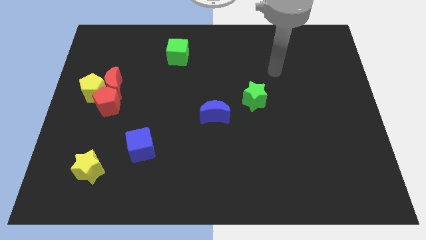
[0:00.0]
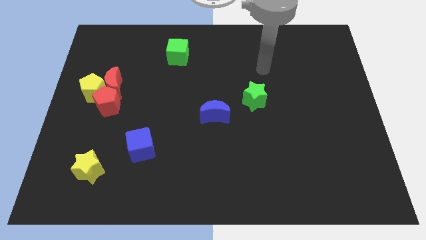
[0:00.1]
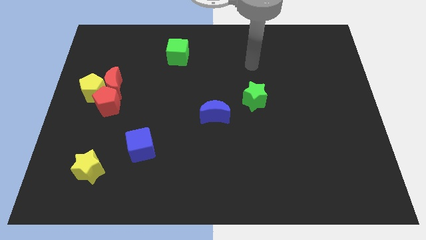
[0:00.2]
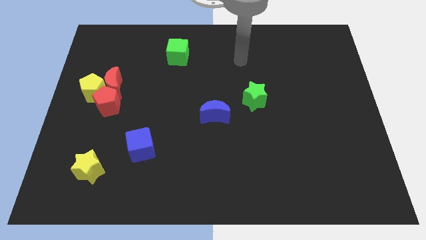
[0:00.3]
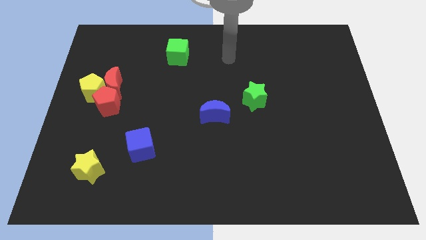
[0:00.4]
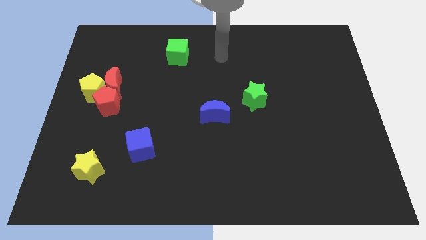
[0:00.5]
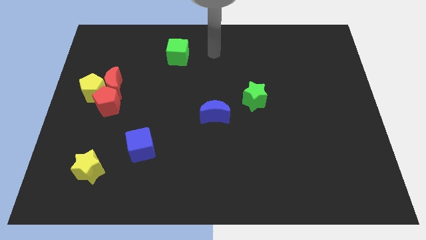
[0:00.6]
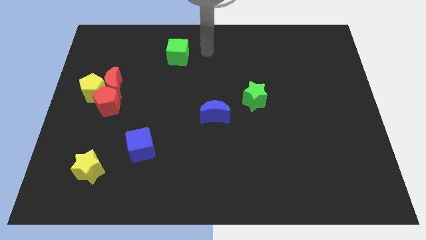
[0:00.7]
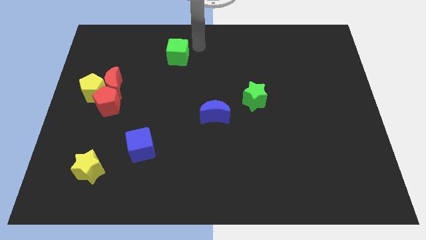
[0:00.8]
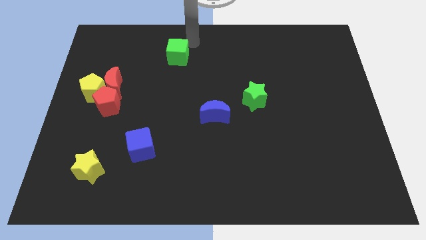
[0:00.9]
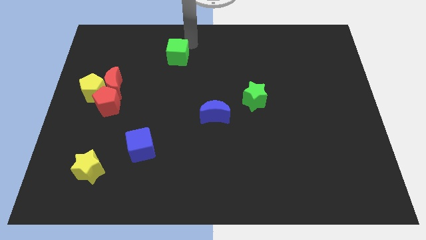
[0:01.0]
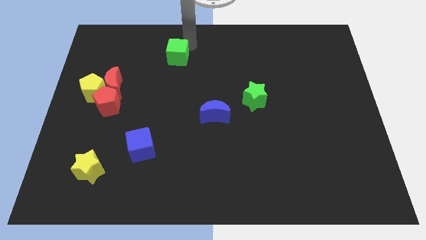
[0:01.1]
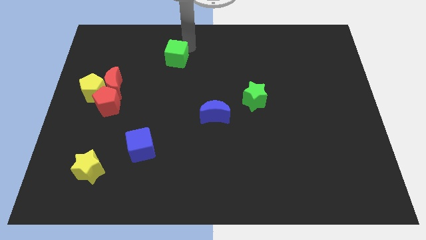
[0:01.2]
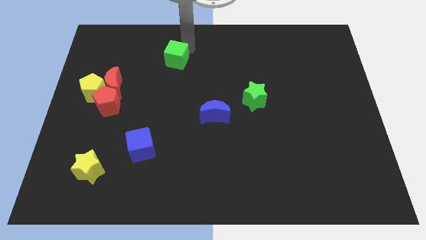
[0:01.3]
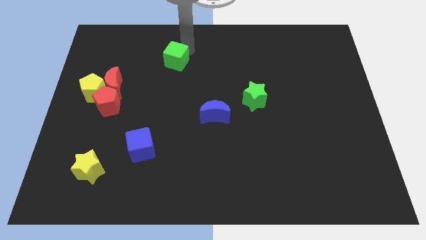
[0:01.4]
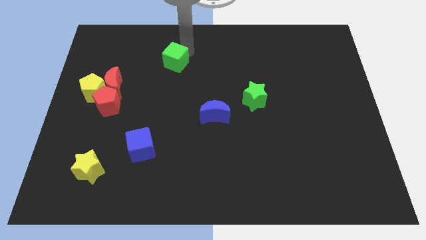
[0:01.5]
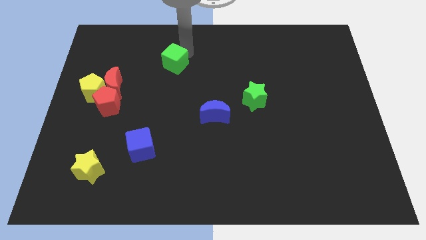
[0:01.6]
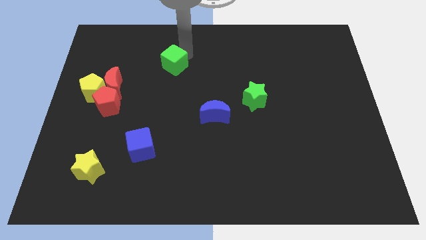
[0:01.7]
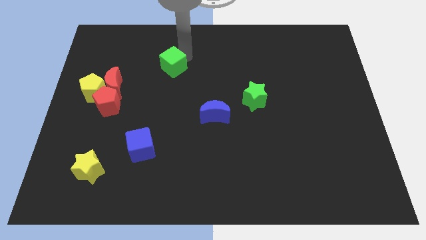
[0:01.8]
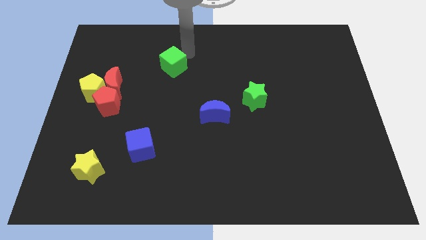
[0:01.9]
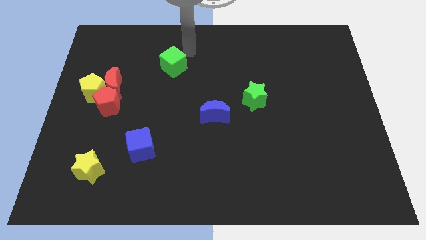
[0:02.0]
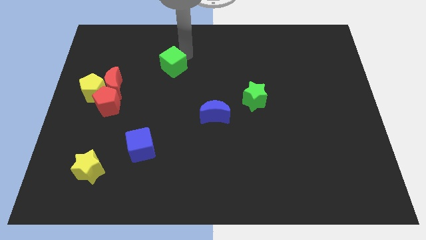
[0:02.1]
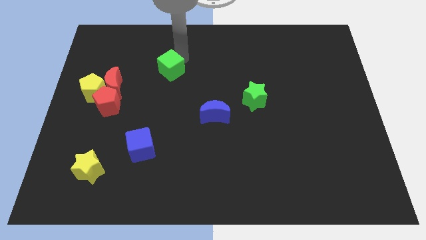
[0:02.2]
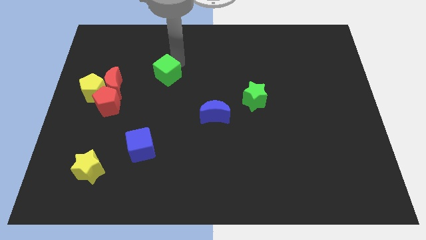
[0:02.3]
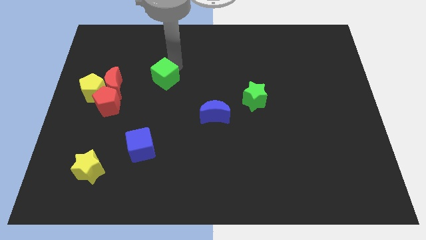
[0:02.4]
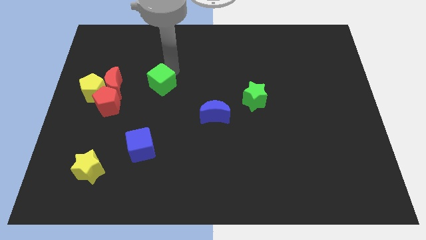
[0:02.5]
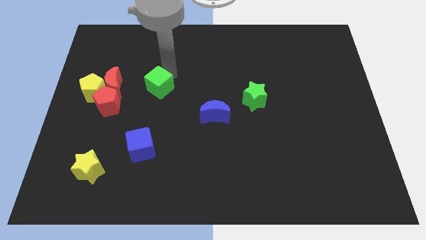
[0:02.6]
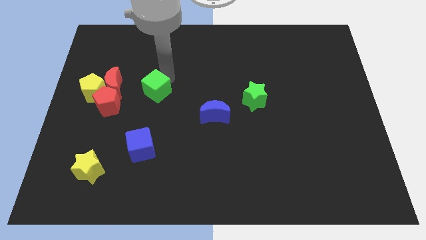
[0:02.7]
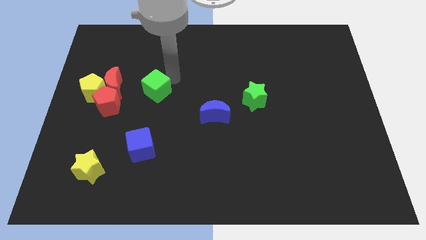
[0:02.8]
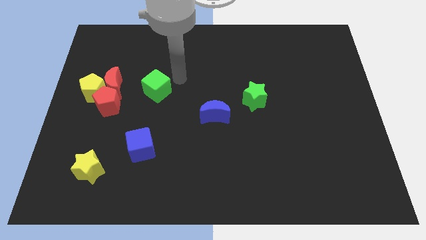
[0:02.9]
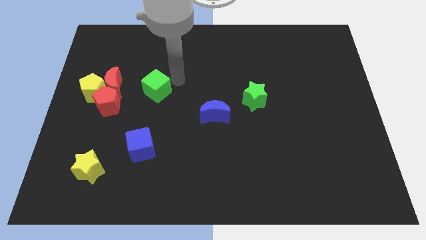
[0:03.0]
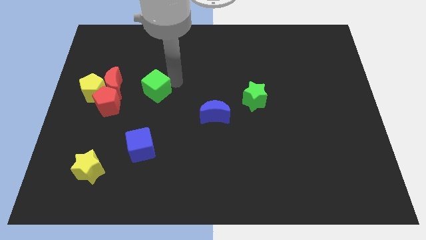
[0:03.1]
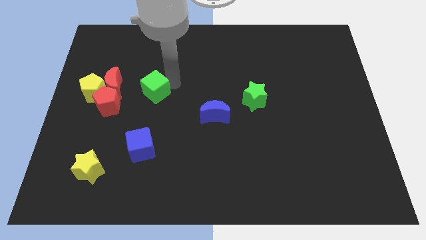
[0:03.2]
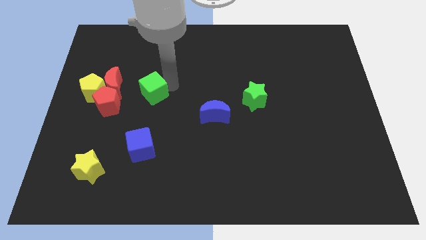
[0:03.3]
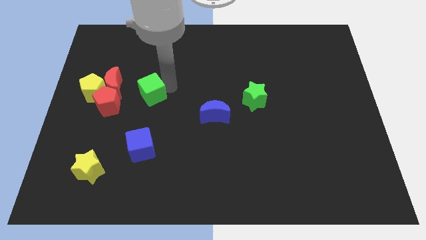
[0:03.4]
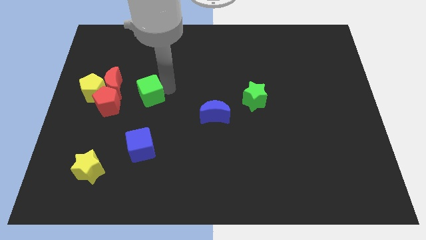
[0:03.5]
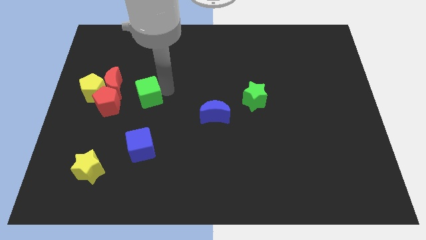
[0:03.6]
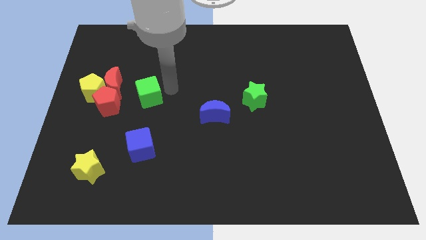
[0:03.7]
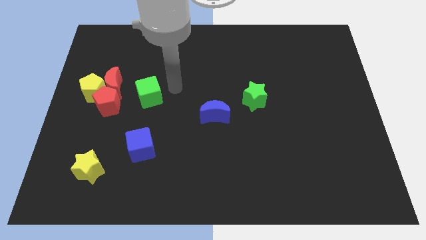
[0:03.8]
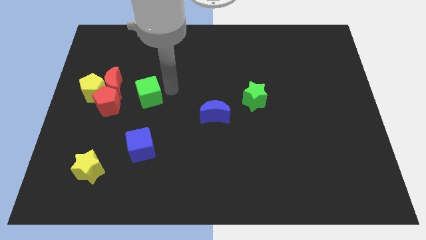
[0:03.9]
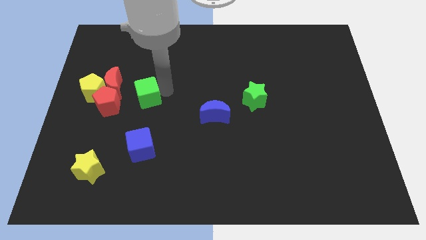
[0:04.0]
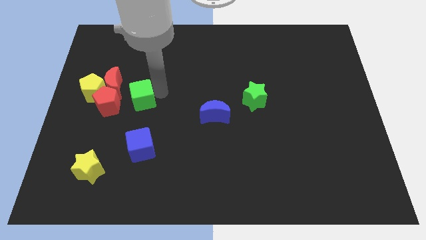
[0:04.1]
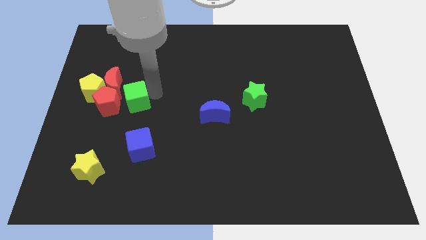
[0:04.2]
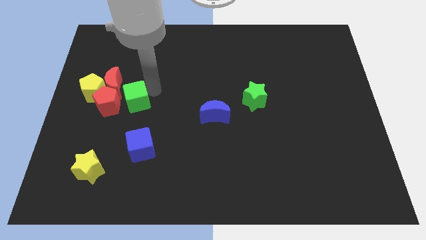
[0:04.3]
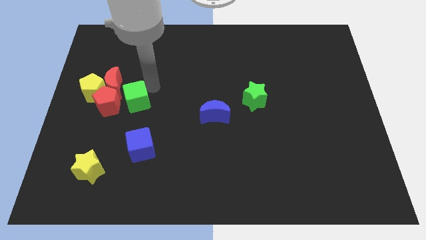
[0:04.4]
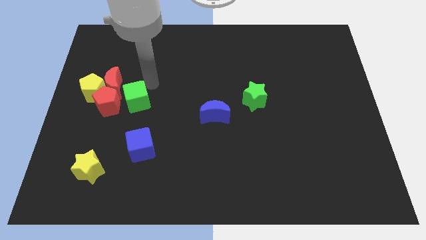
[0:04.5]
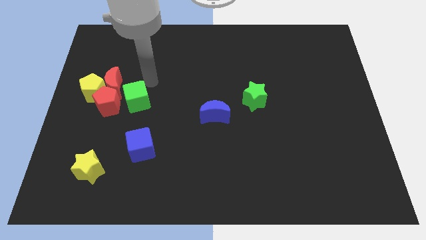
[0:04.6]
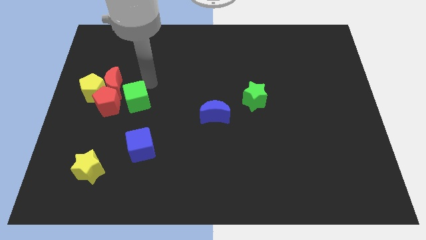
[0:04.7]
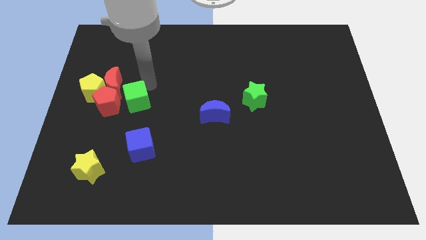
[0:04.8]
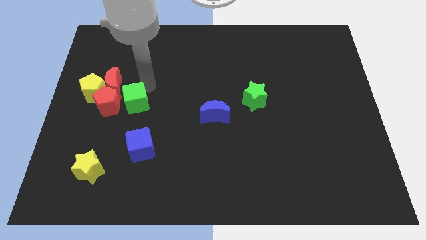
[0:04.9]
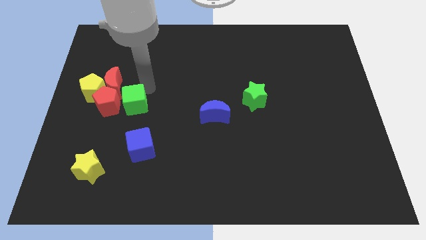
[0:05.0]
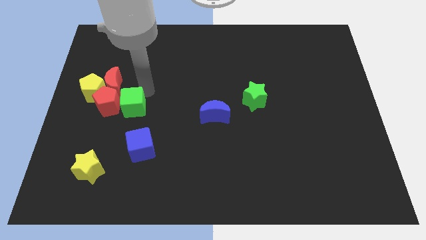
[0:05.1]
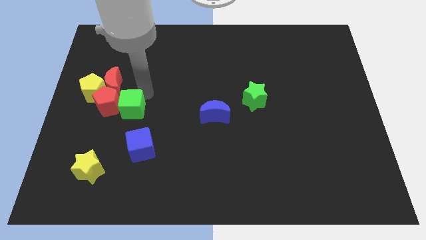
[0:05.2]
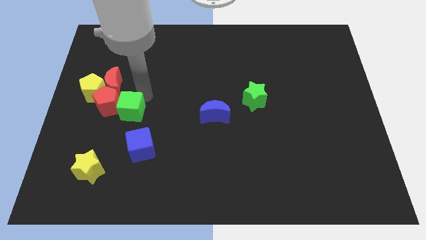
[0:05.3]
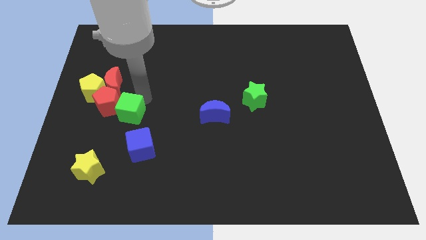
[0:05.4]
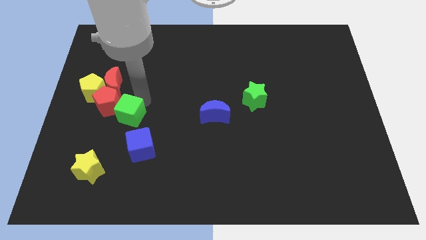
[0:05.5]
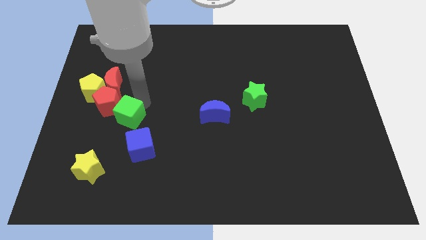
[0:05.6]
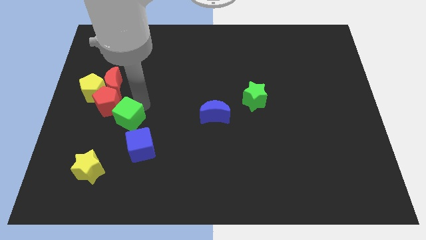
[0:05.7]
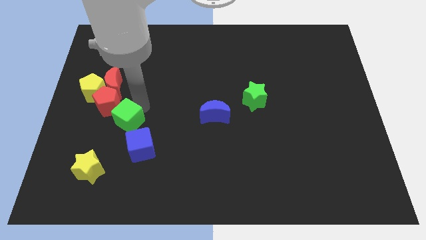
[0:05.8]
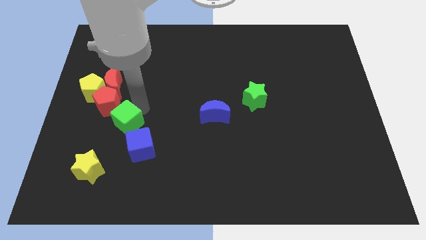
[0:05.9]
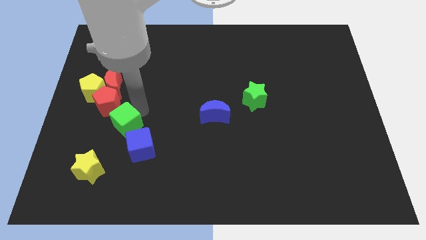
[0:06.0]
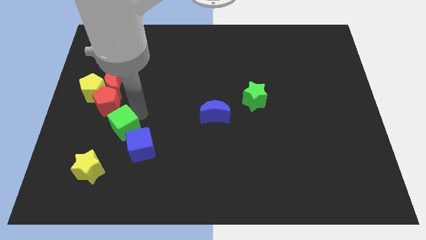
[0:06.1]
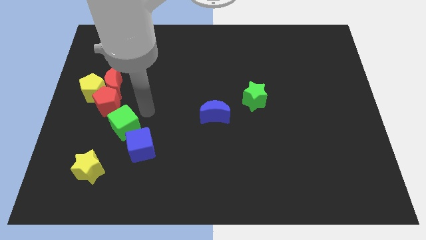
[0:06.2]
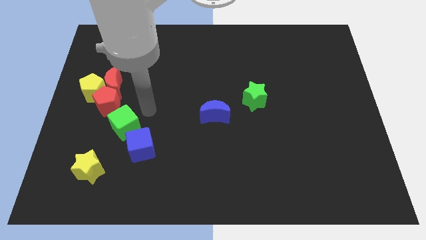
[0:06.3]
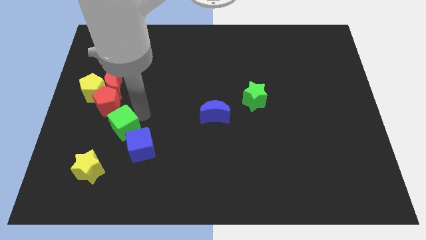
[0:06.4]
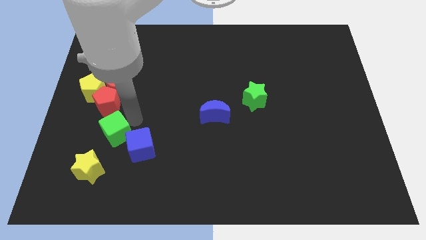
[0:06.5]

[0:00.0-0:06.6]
slide the green cube to the left of the blue cube

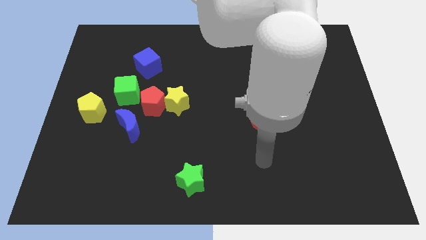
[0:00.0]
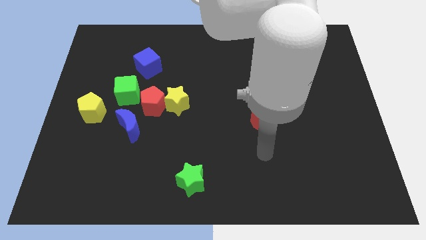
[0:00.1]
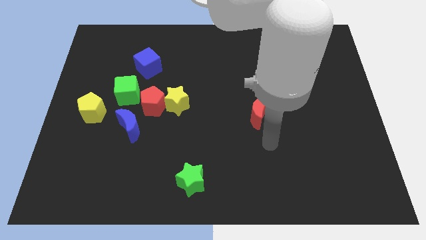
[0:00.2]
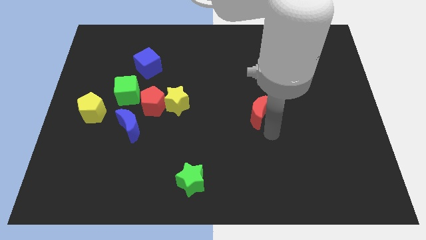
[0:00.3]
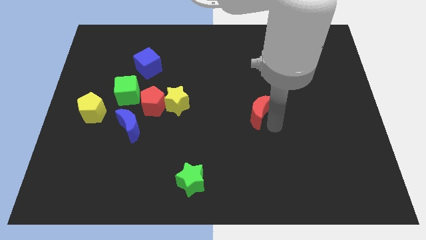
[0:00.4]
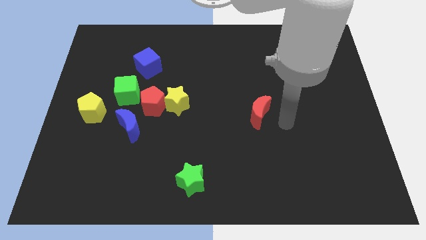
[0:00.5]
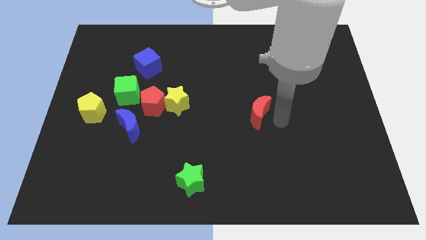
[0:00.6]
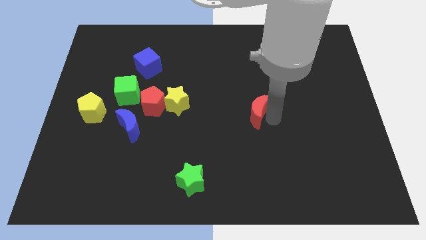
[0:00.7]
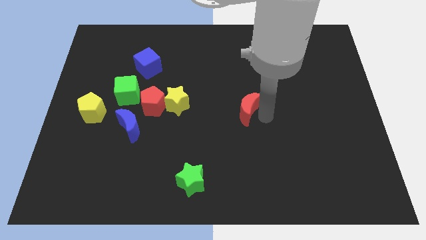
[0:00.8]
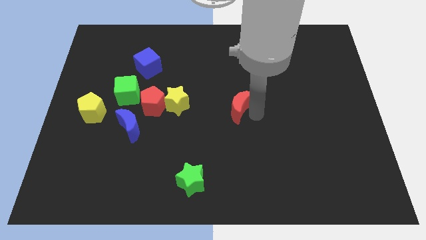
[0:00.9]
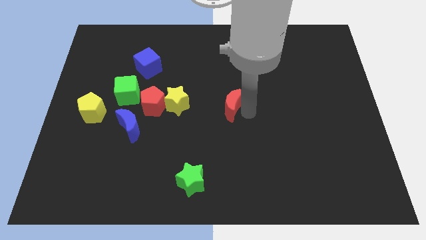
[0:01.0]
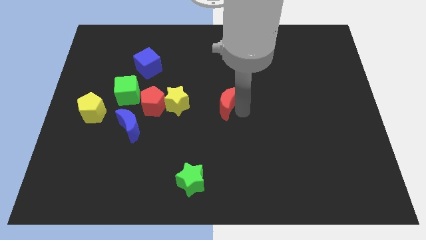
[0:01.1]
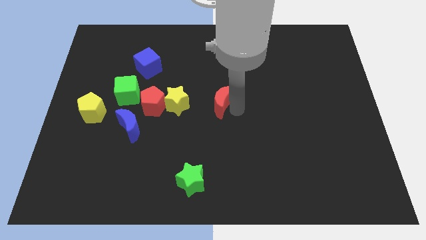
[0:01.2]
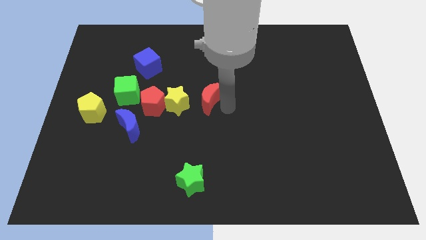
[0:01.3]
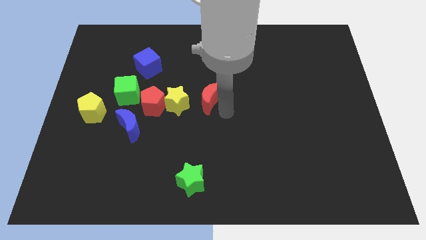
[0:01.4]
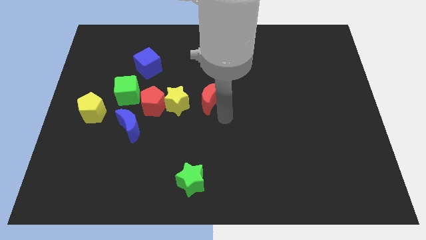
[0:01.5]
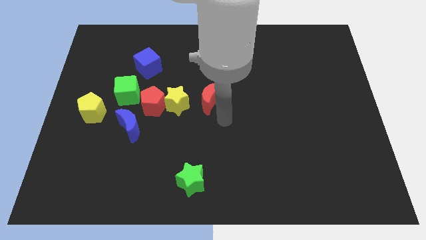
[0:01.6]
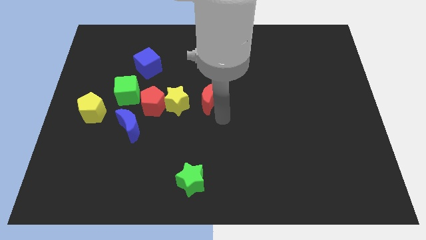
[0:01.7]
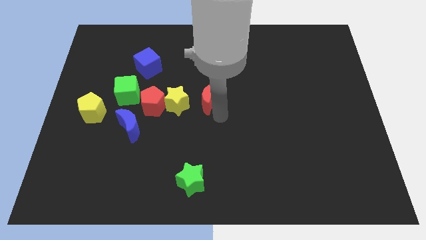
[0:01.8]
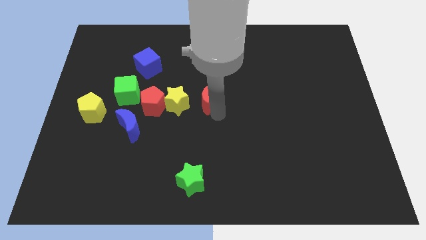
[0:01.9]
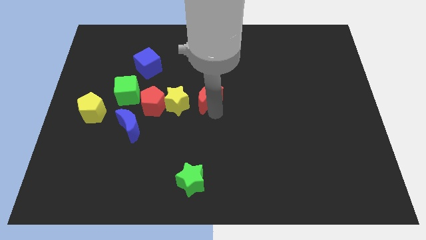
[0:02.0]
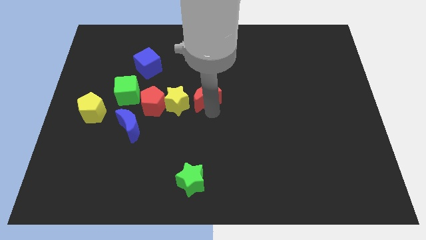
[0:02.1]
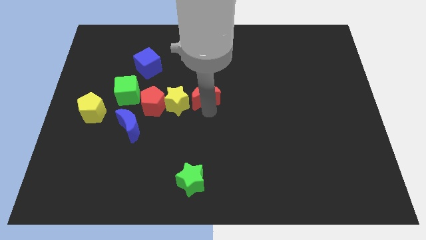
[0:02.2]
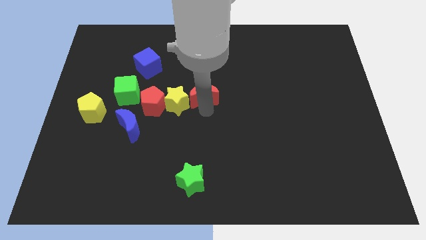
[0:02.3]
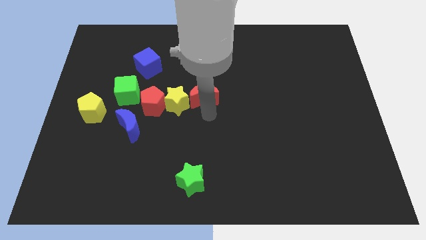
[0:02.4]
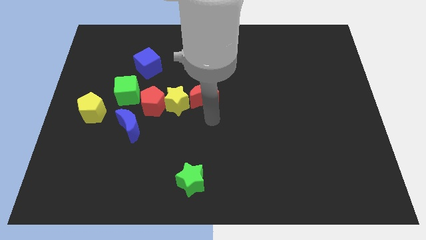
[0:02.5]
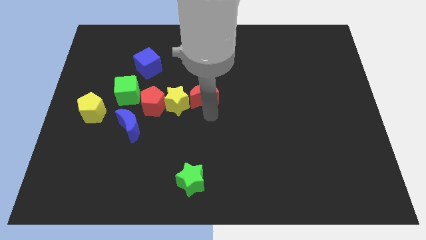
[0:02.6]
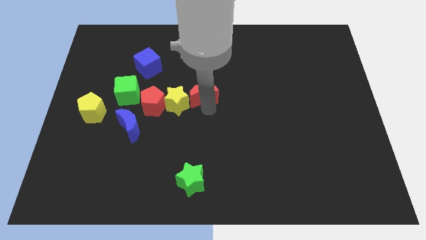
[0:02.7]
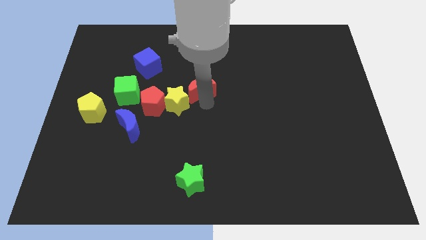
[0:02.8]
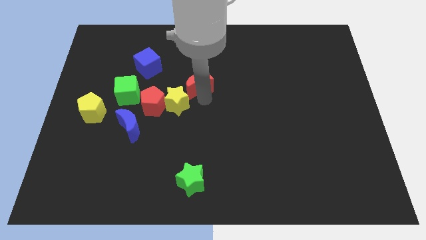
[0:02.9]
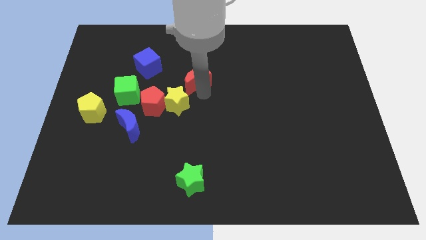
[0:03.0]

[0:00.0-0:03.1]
move the red moon above the yellow star
